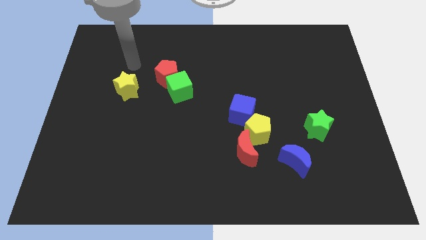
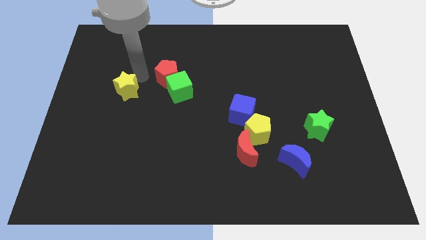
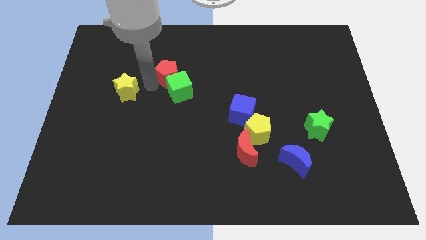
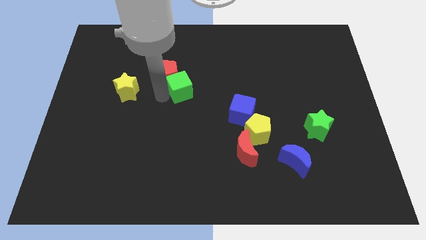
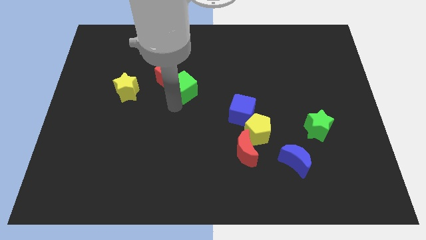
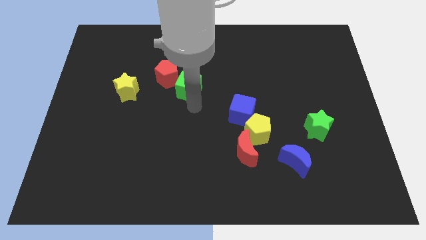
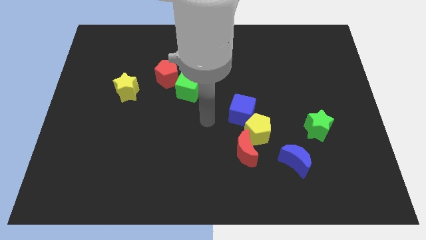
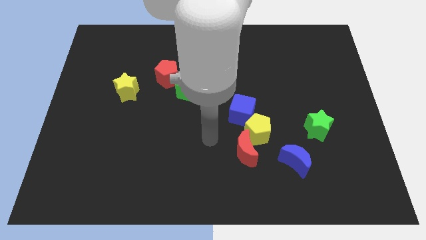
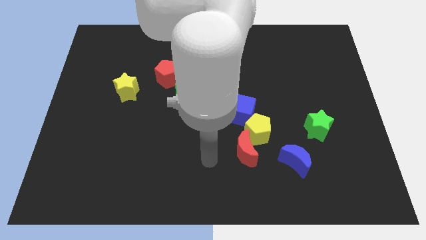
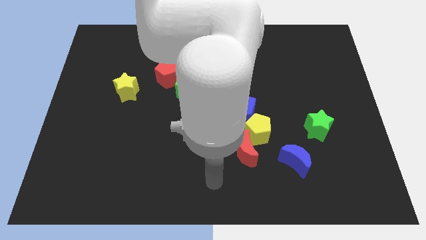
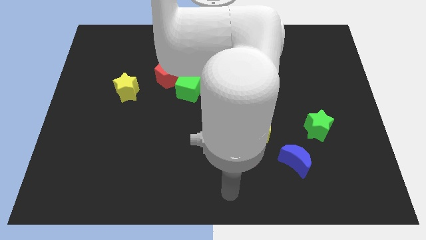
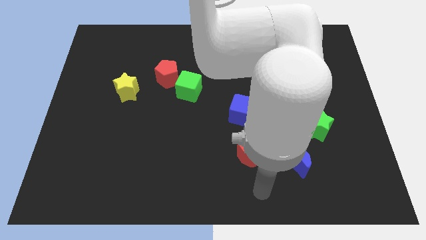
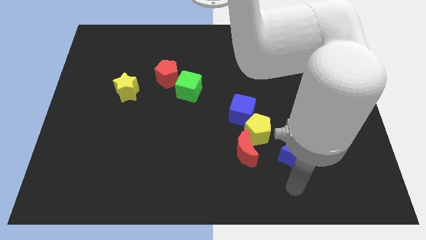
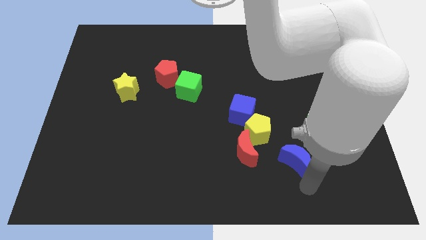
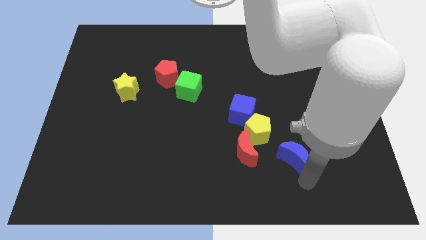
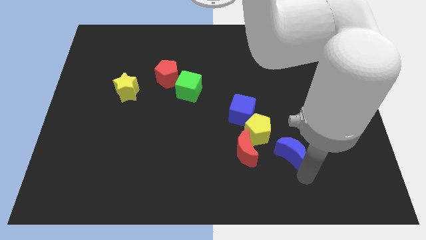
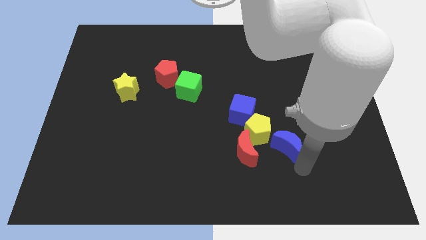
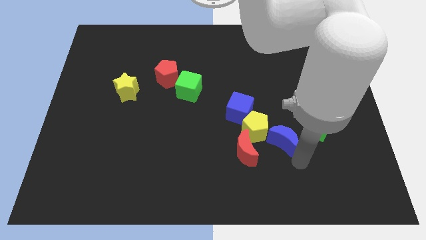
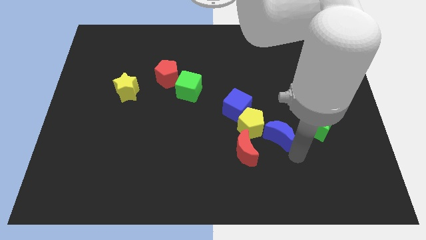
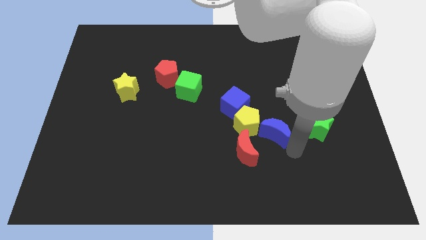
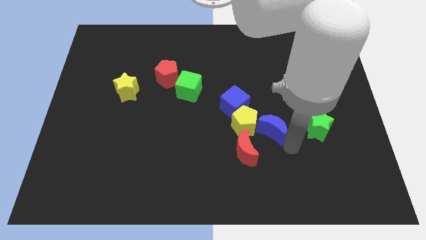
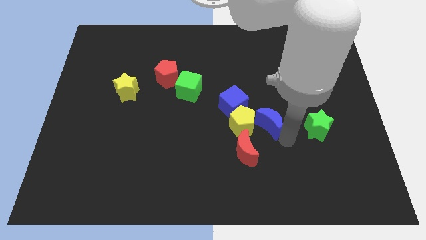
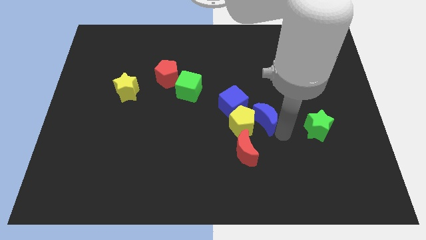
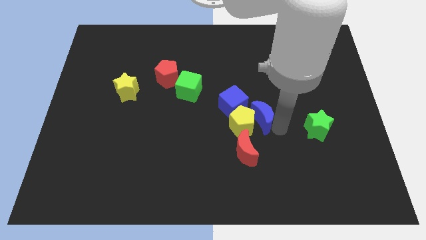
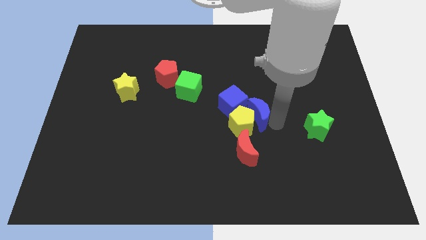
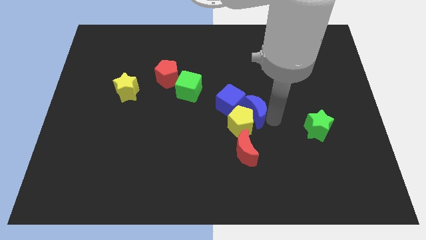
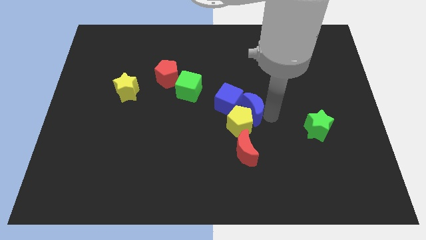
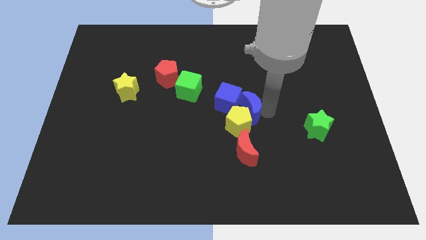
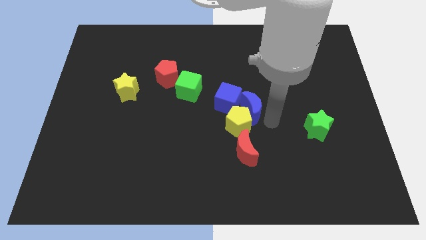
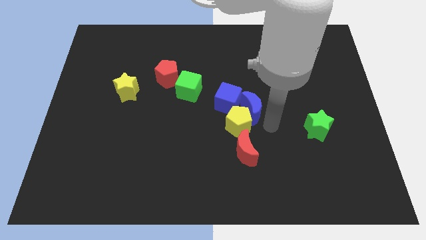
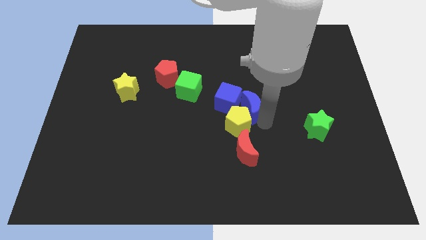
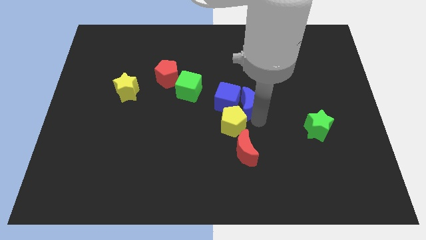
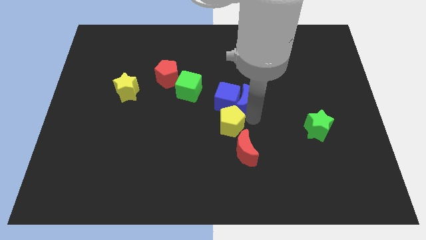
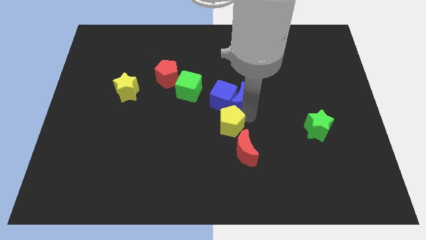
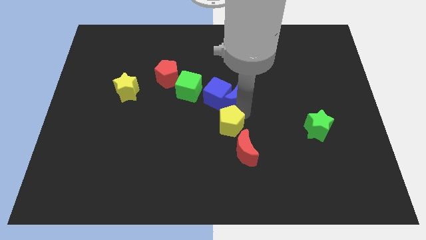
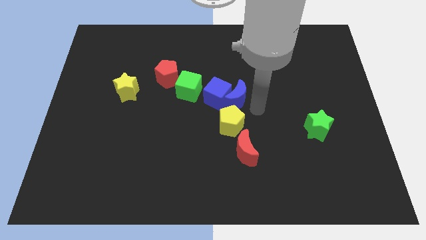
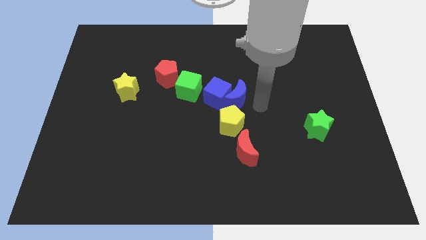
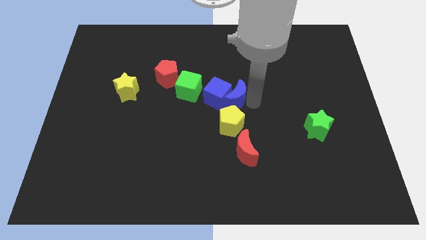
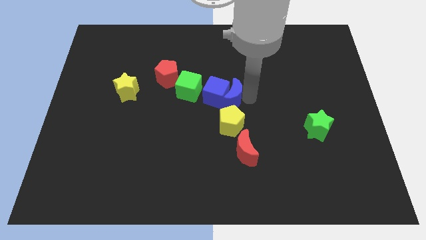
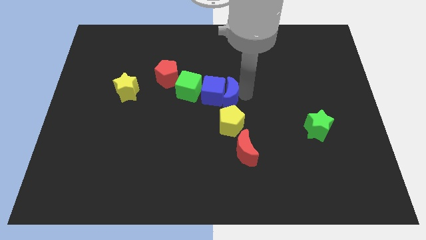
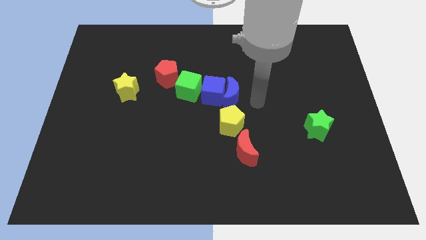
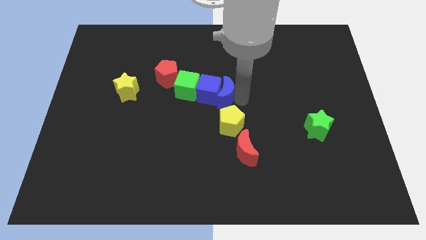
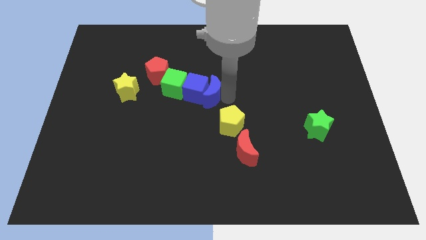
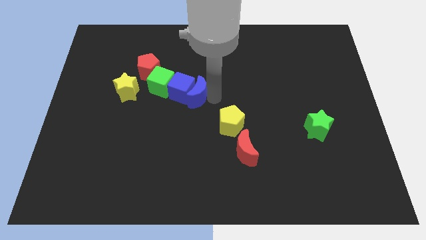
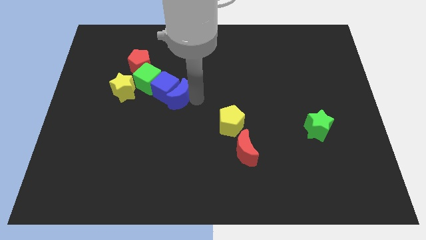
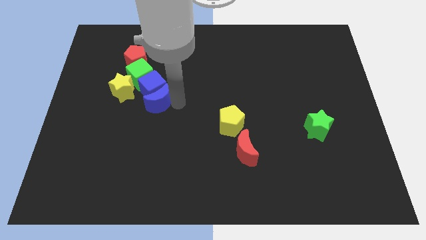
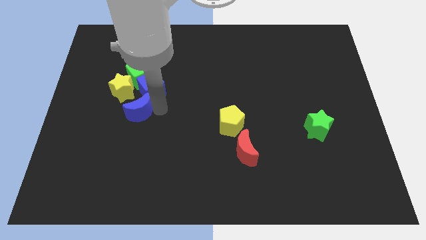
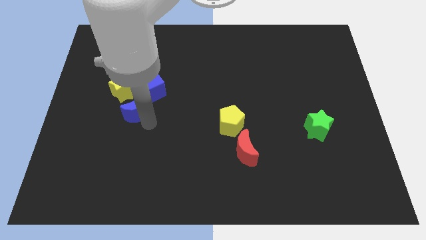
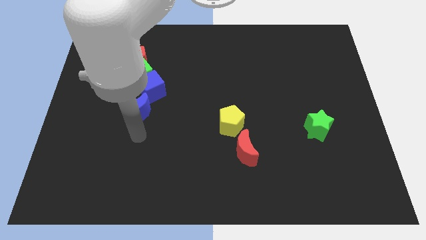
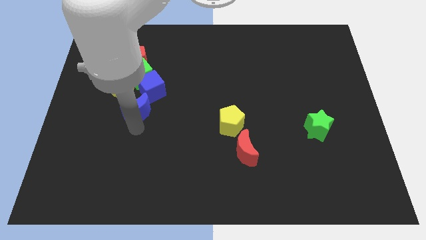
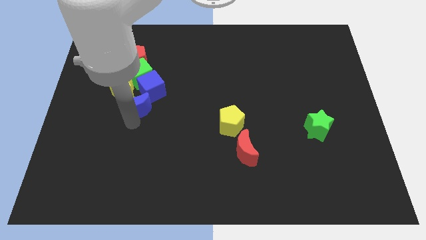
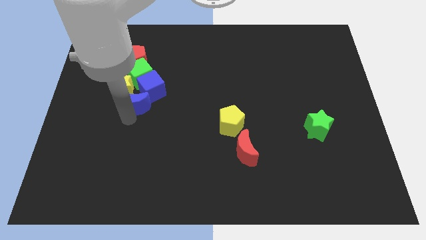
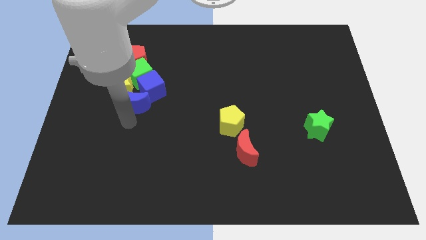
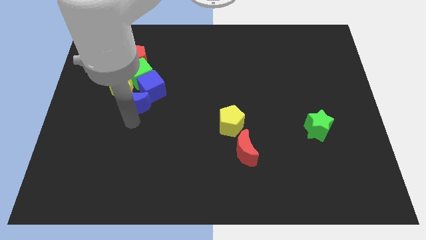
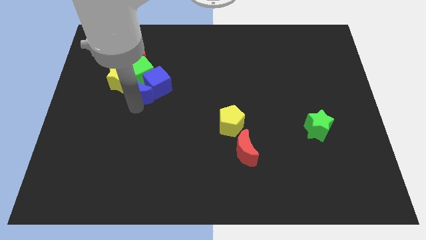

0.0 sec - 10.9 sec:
put the blue moon to the green cube

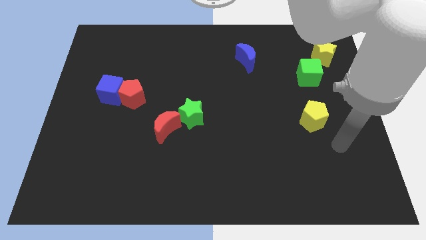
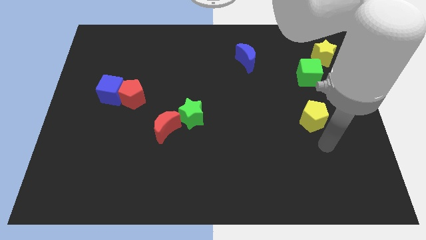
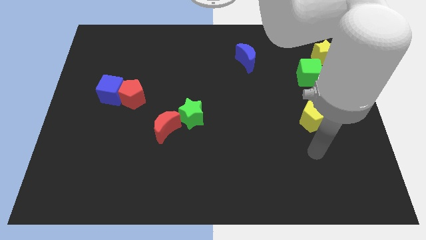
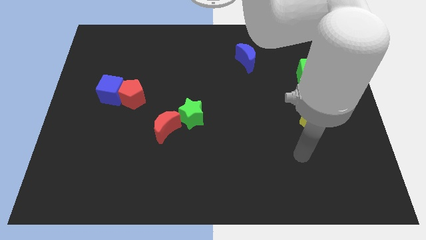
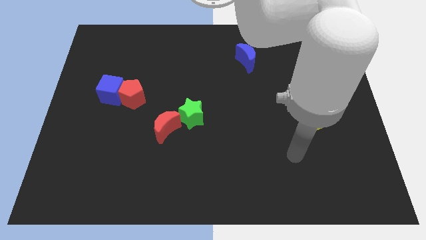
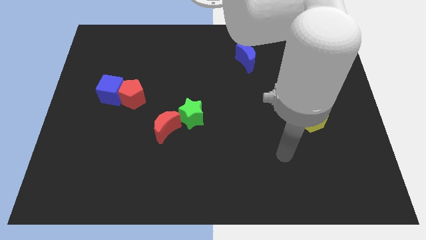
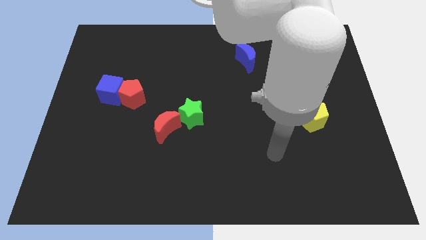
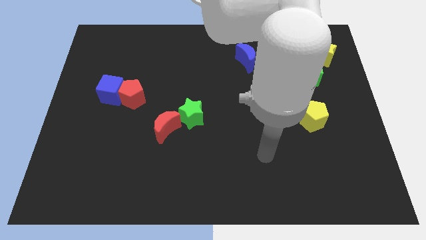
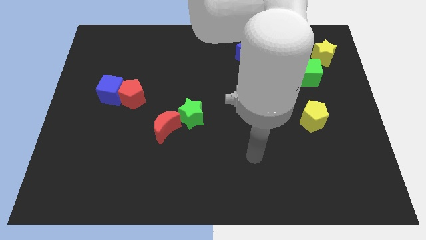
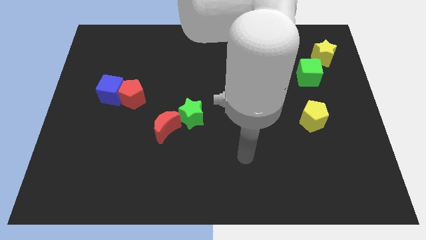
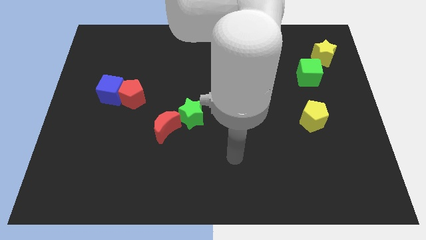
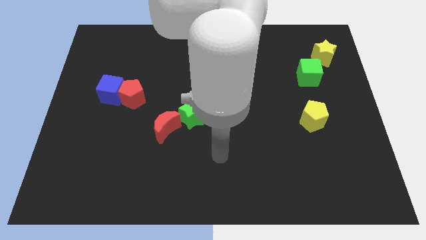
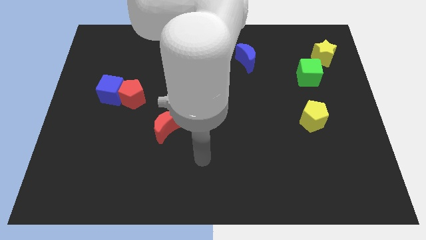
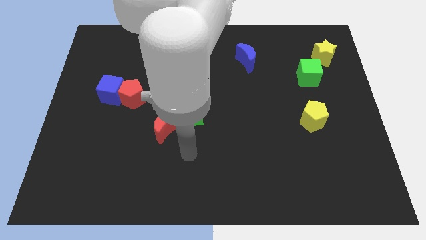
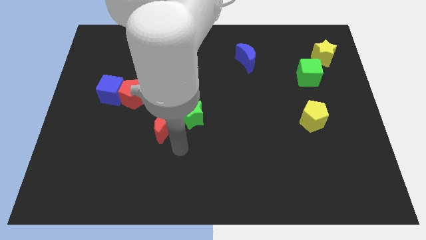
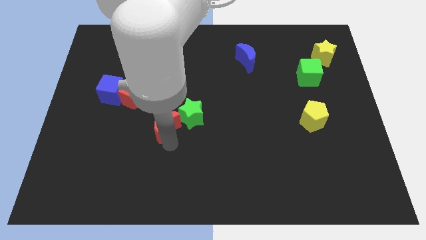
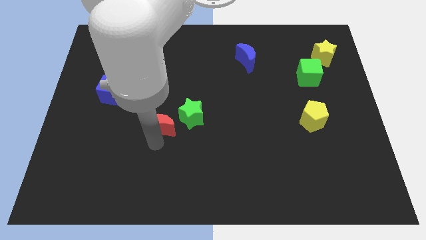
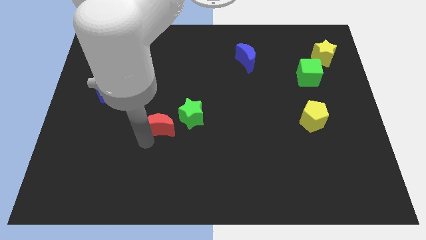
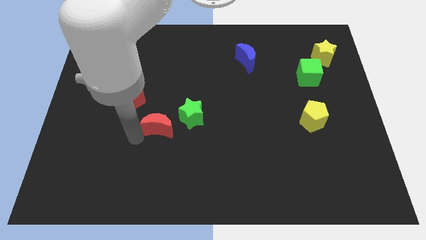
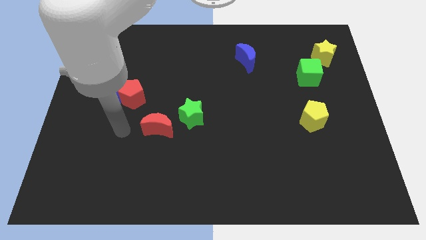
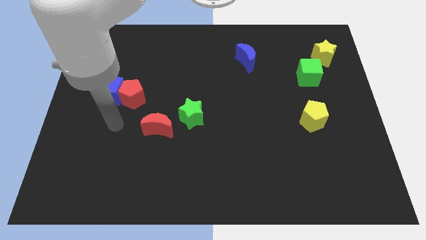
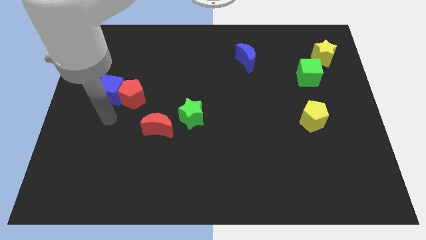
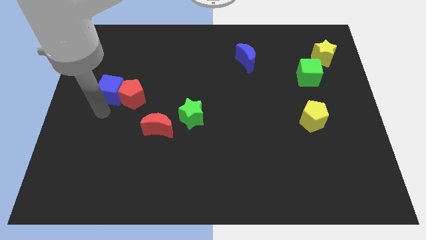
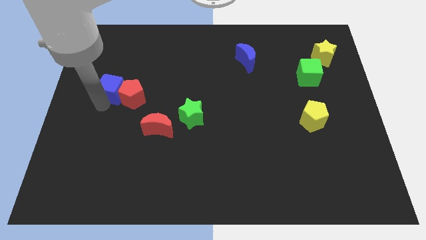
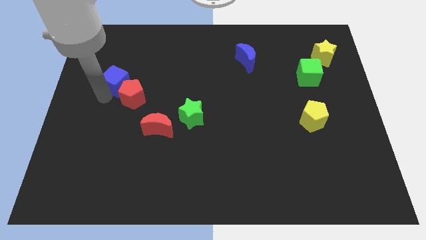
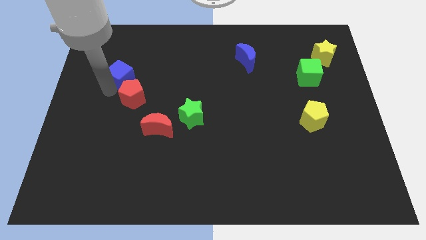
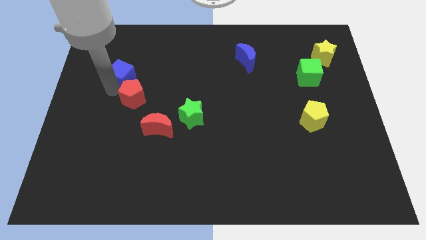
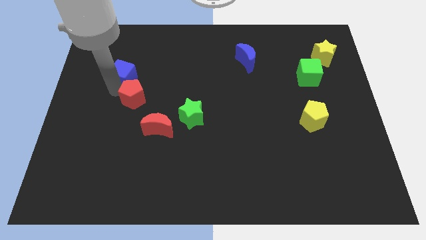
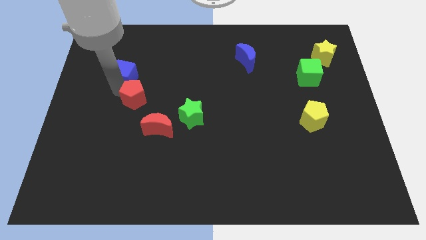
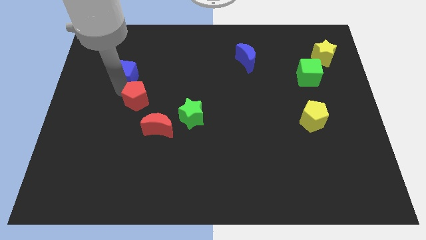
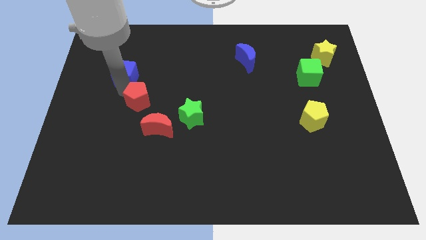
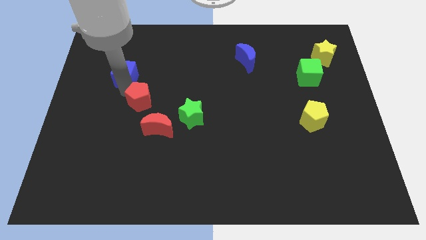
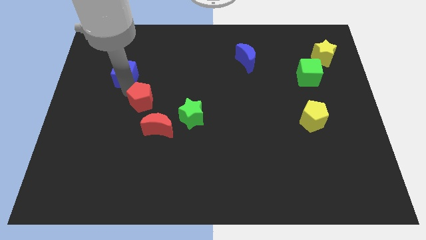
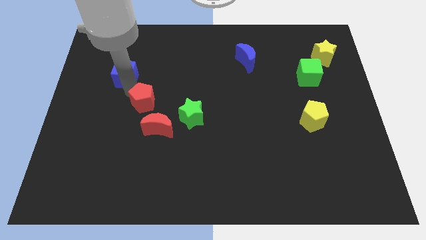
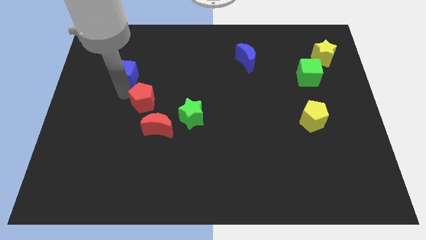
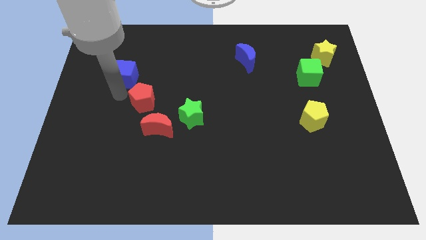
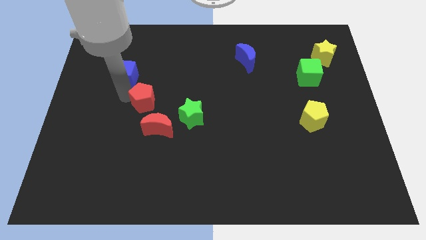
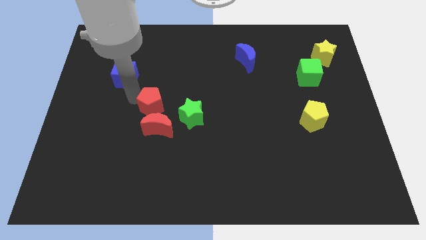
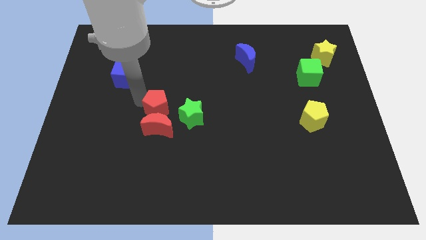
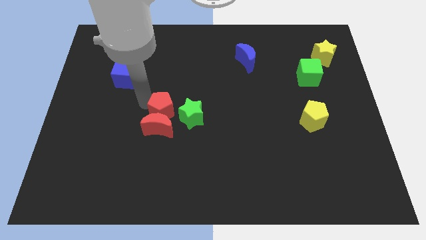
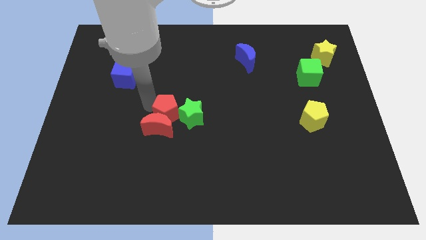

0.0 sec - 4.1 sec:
slide the red pentagon towards the green star
